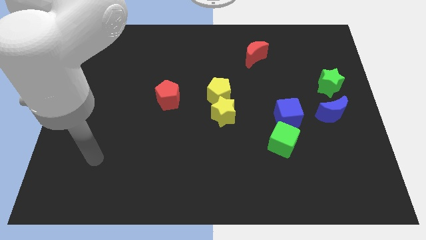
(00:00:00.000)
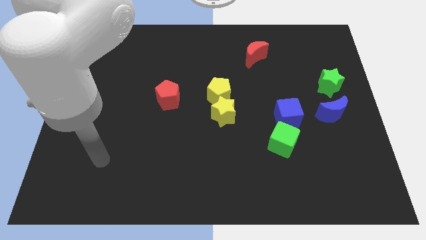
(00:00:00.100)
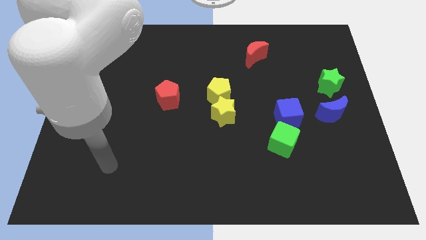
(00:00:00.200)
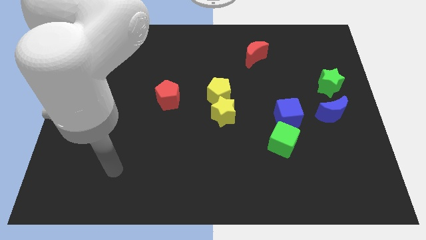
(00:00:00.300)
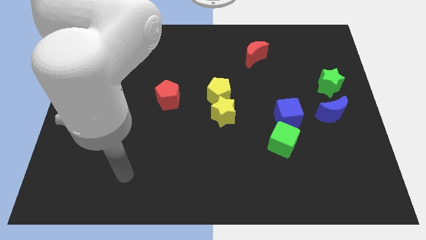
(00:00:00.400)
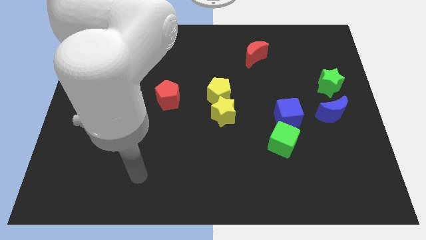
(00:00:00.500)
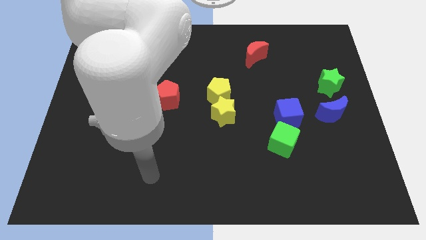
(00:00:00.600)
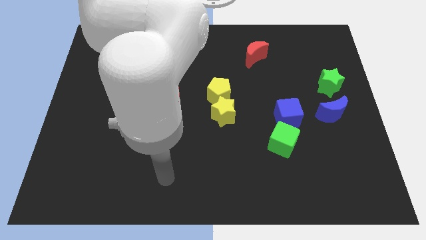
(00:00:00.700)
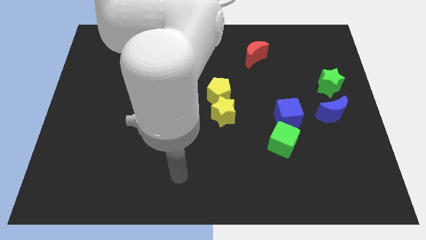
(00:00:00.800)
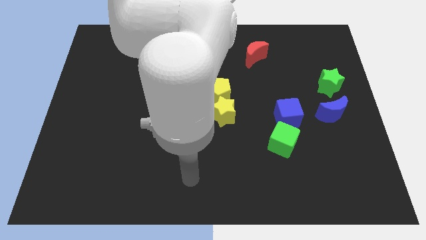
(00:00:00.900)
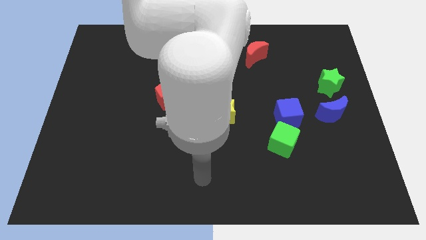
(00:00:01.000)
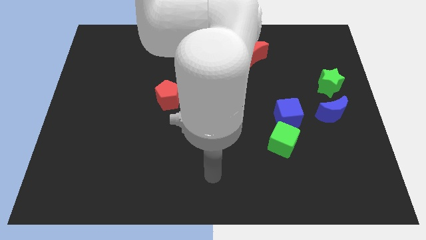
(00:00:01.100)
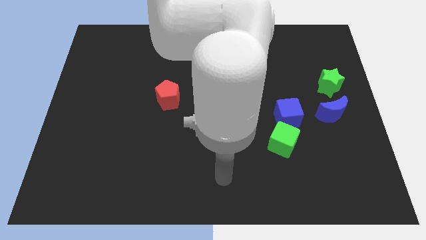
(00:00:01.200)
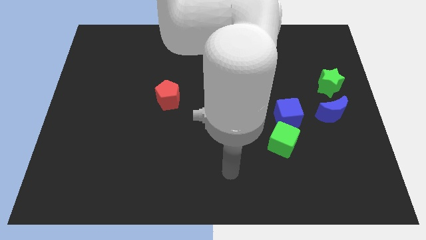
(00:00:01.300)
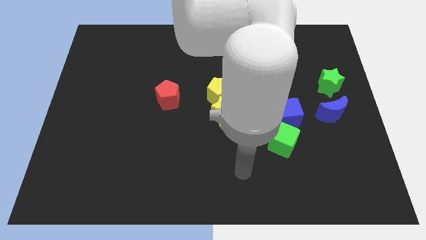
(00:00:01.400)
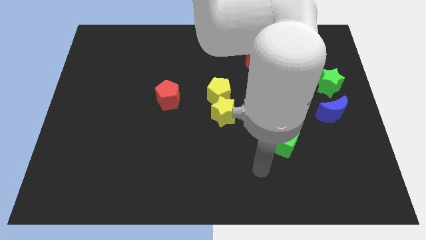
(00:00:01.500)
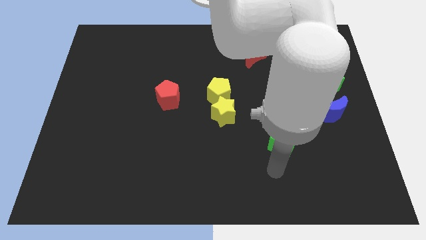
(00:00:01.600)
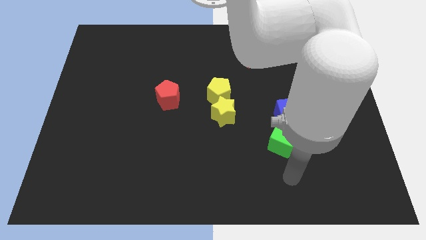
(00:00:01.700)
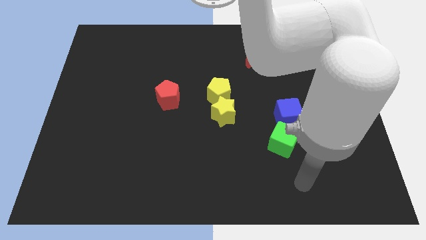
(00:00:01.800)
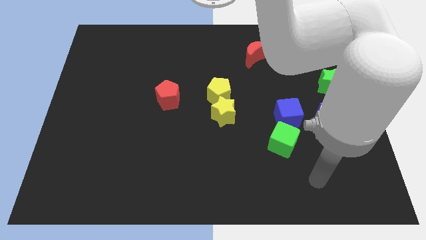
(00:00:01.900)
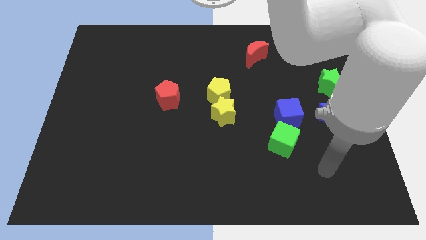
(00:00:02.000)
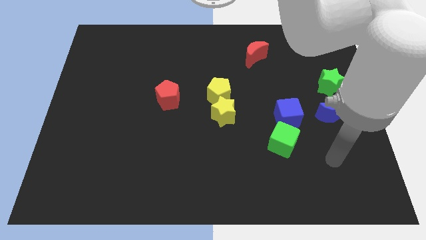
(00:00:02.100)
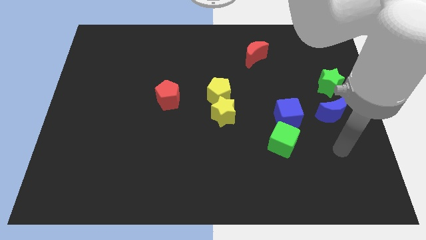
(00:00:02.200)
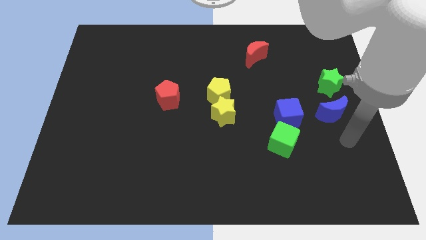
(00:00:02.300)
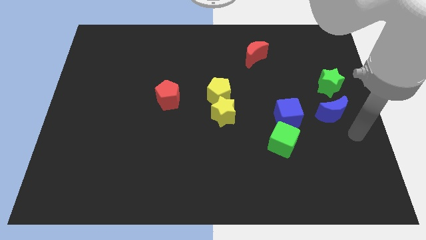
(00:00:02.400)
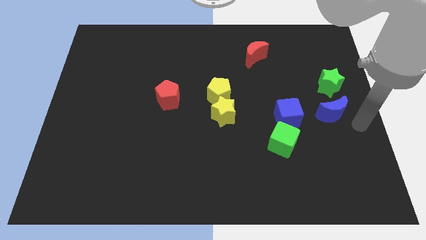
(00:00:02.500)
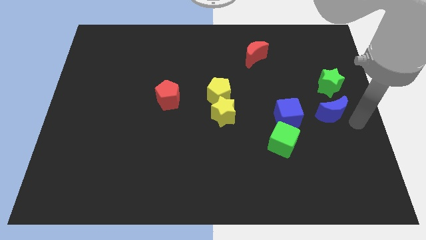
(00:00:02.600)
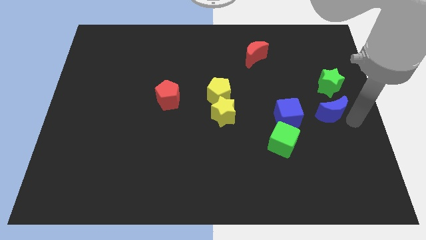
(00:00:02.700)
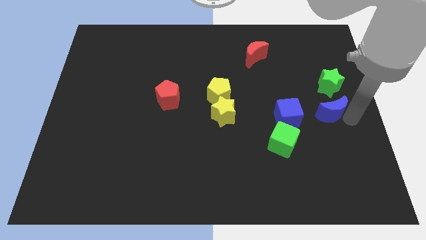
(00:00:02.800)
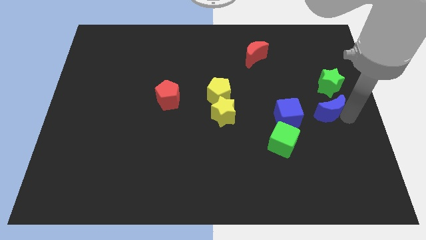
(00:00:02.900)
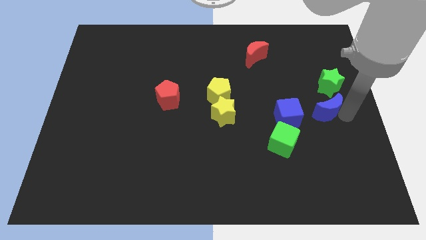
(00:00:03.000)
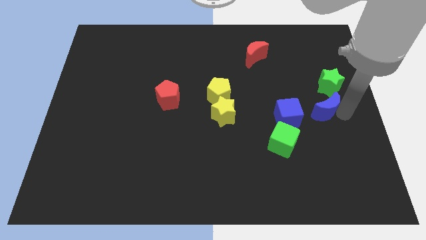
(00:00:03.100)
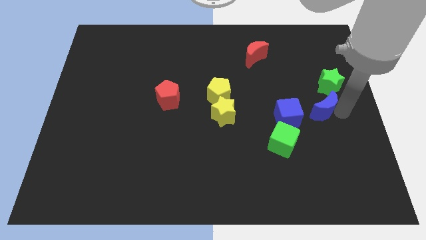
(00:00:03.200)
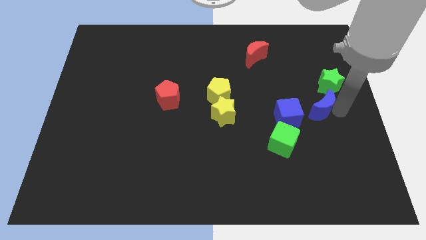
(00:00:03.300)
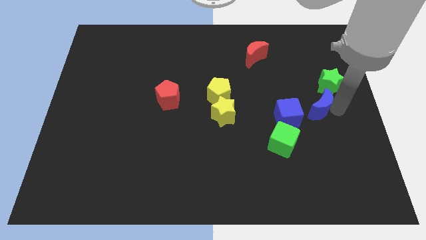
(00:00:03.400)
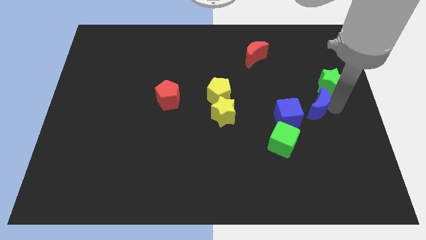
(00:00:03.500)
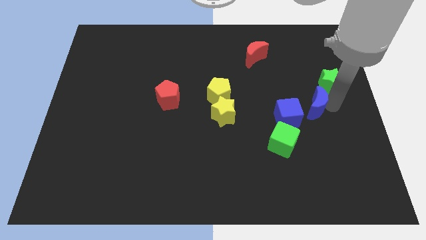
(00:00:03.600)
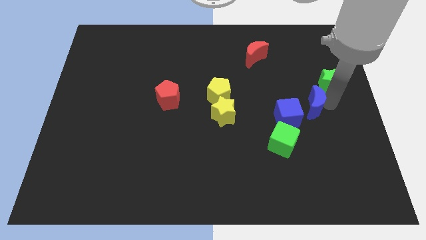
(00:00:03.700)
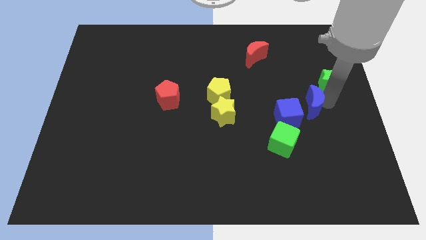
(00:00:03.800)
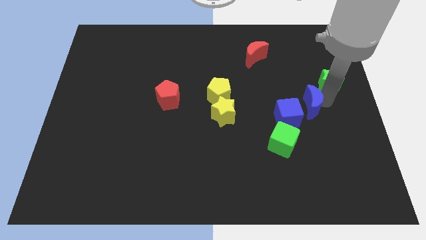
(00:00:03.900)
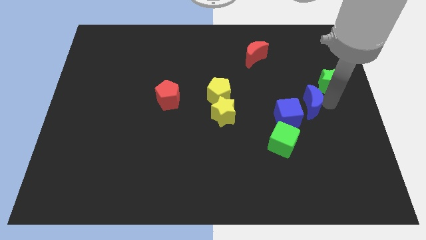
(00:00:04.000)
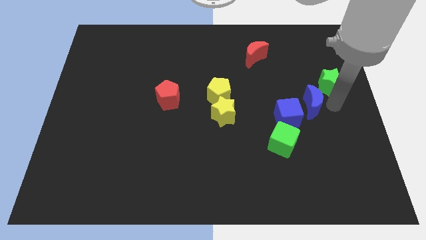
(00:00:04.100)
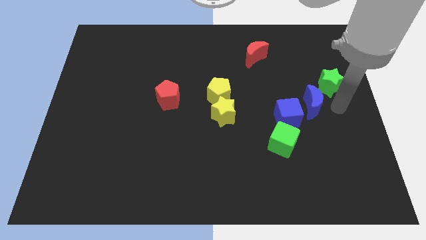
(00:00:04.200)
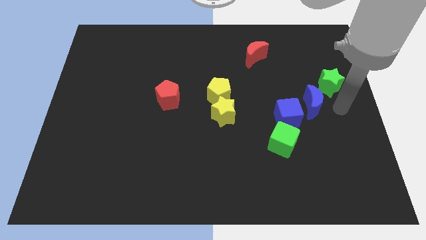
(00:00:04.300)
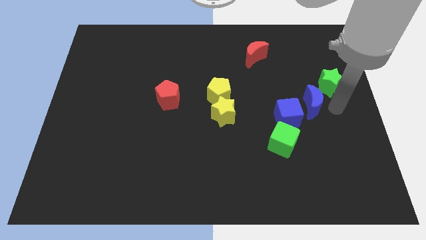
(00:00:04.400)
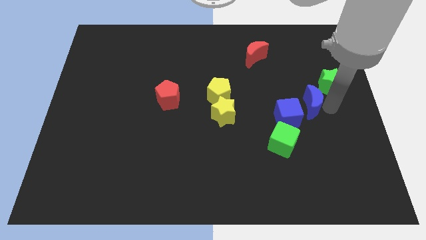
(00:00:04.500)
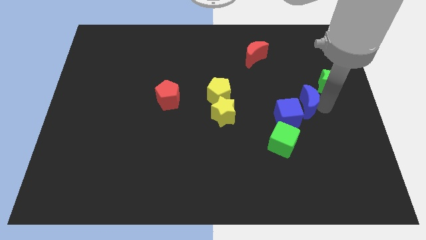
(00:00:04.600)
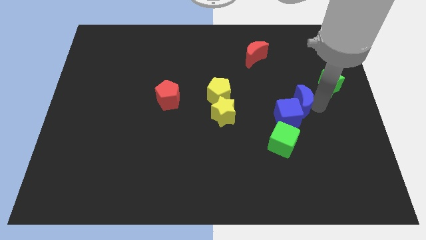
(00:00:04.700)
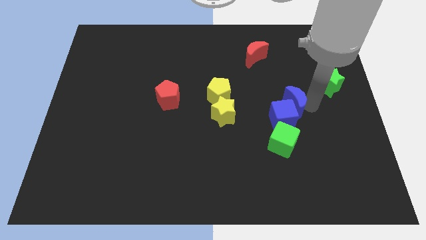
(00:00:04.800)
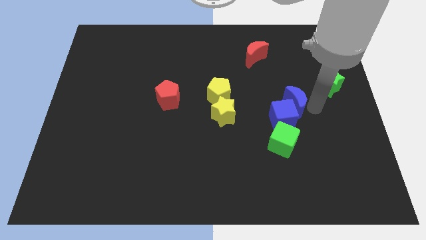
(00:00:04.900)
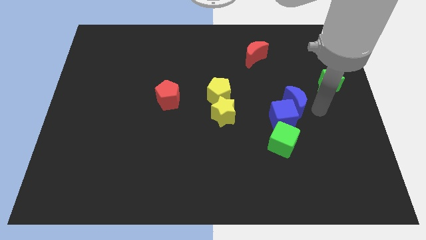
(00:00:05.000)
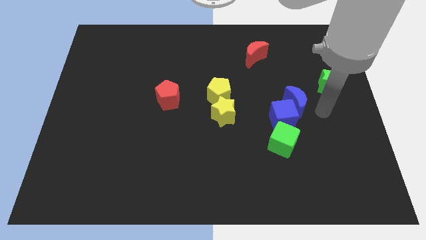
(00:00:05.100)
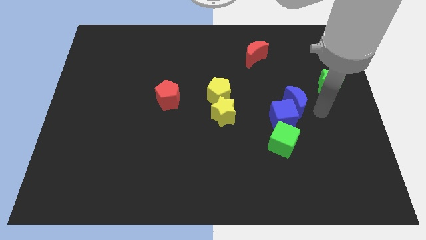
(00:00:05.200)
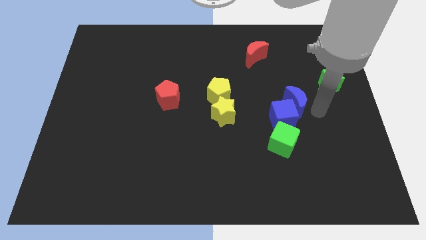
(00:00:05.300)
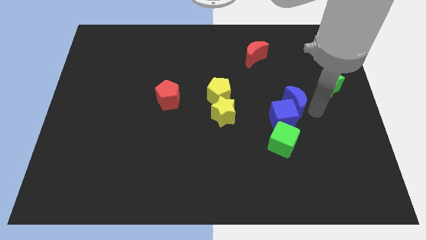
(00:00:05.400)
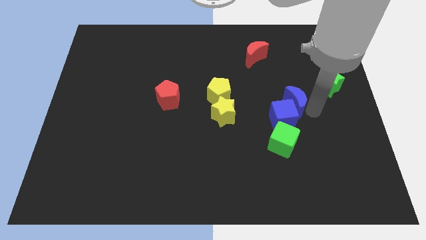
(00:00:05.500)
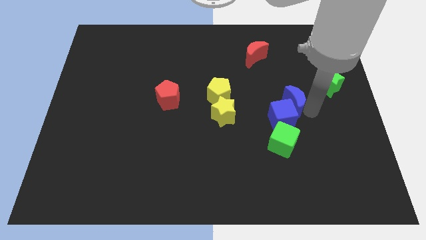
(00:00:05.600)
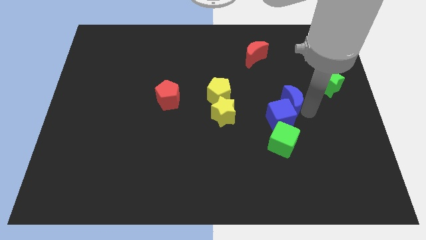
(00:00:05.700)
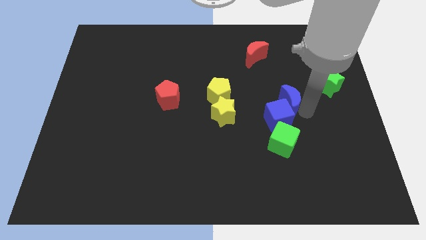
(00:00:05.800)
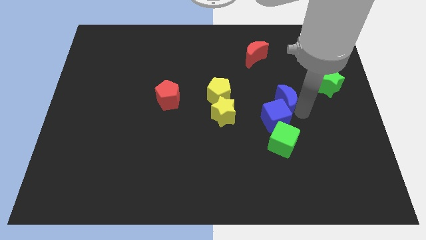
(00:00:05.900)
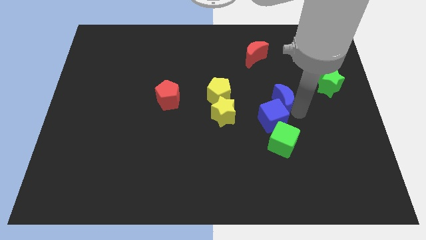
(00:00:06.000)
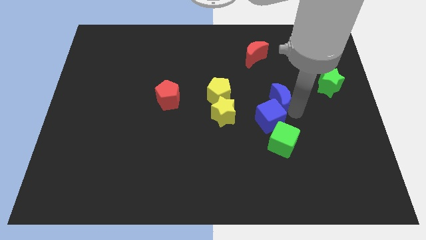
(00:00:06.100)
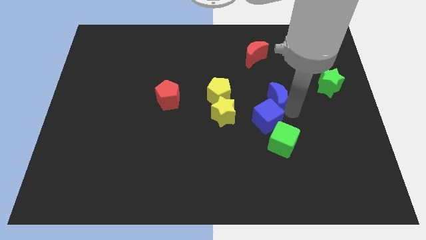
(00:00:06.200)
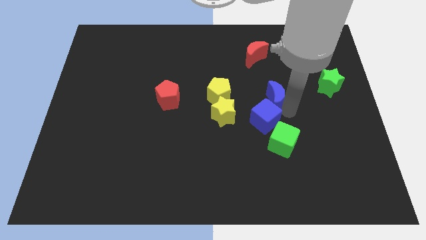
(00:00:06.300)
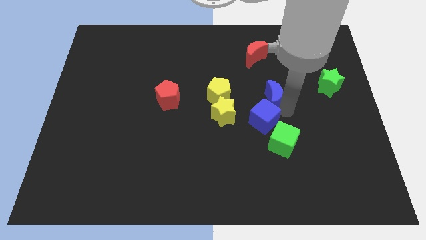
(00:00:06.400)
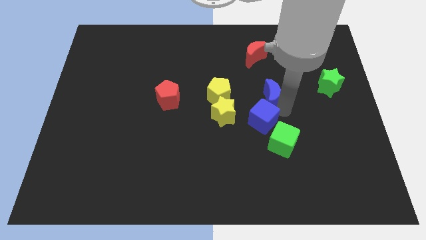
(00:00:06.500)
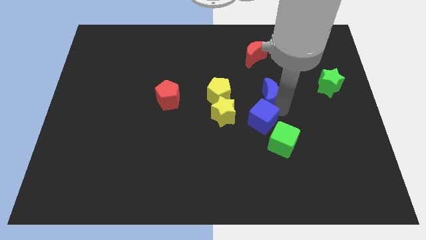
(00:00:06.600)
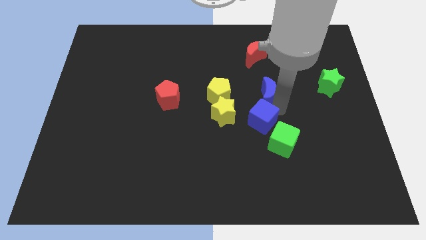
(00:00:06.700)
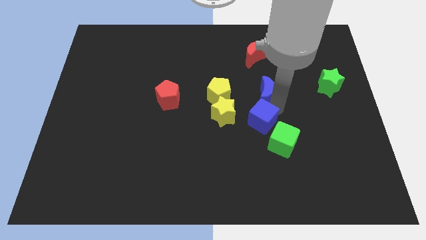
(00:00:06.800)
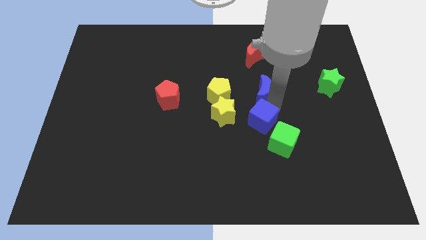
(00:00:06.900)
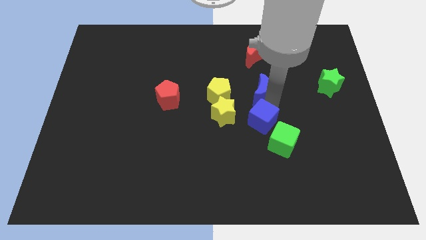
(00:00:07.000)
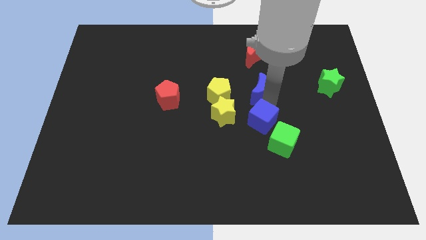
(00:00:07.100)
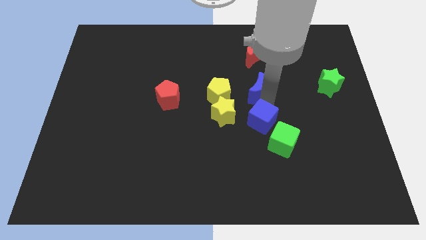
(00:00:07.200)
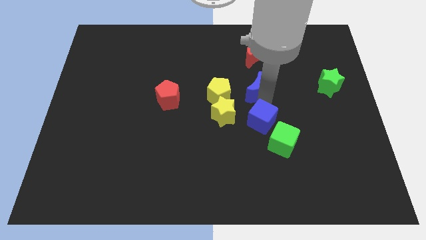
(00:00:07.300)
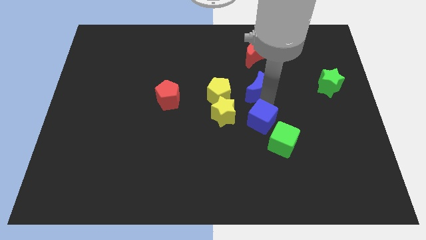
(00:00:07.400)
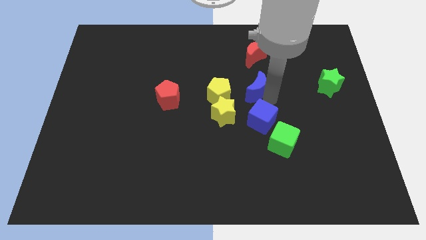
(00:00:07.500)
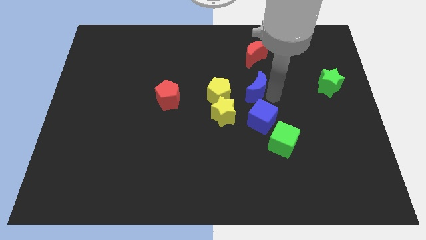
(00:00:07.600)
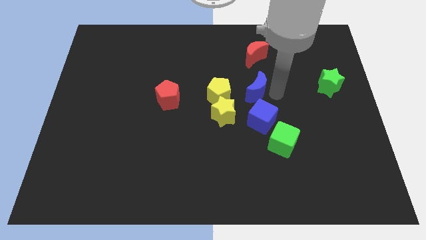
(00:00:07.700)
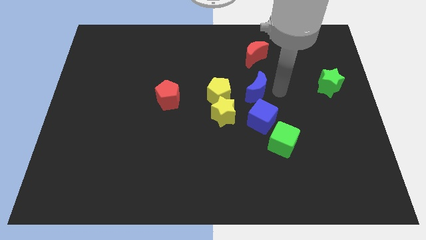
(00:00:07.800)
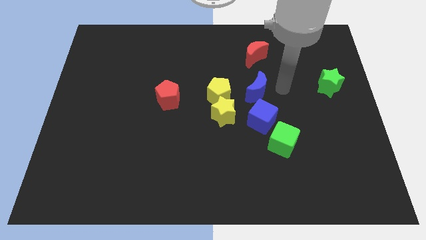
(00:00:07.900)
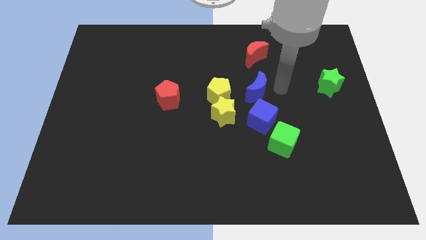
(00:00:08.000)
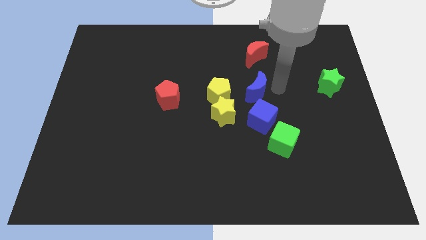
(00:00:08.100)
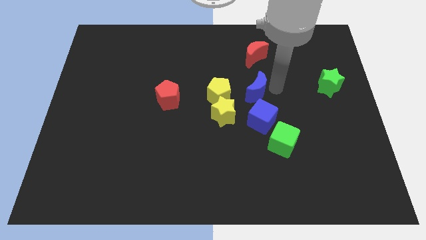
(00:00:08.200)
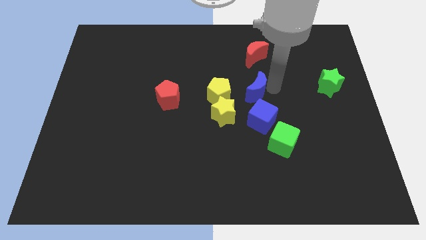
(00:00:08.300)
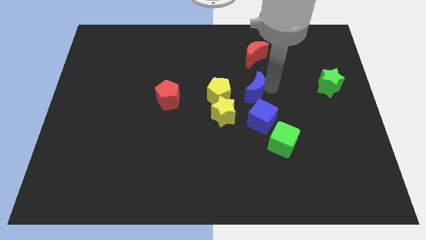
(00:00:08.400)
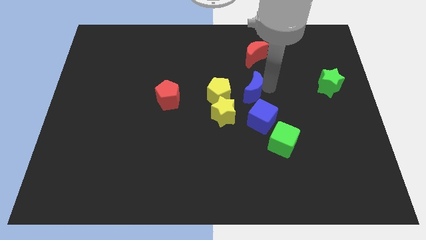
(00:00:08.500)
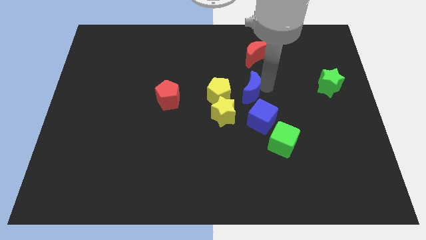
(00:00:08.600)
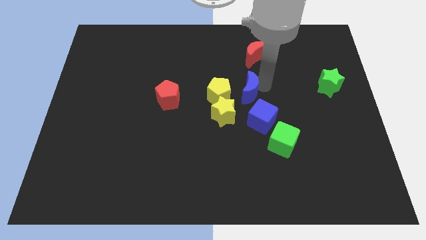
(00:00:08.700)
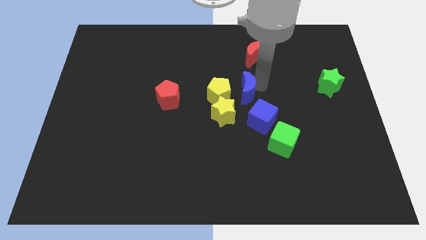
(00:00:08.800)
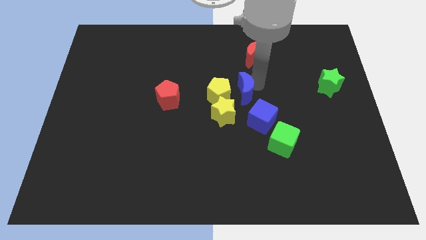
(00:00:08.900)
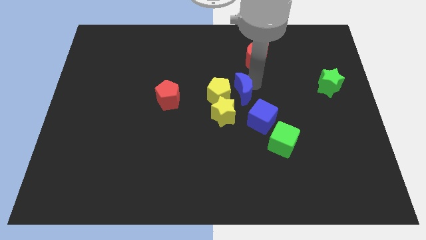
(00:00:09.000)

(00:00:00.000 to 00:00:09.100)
put the blue moon towards the yellow pentagon
